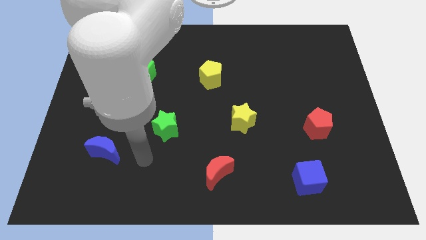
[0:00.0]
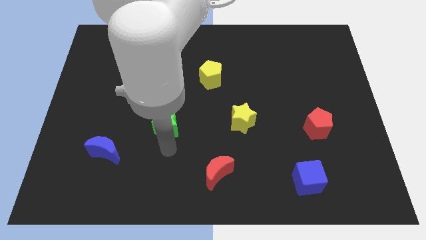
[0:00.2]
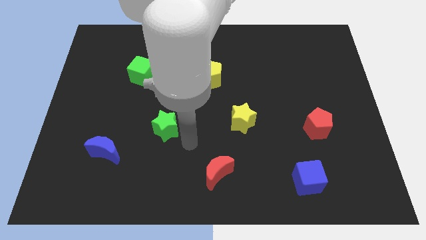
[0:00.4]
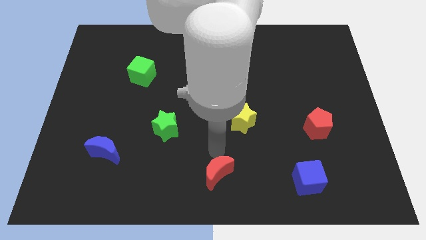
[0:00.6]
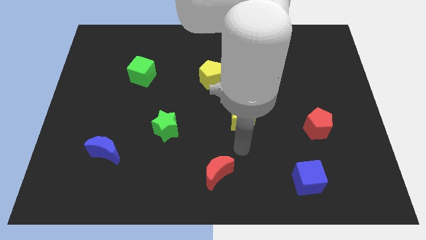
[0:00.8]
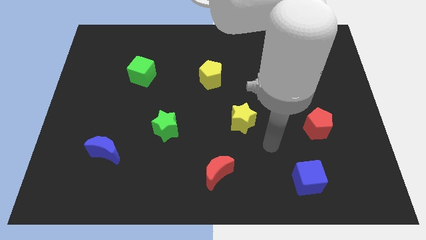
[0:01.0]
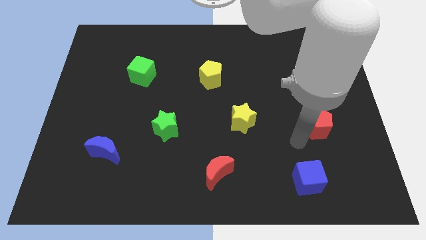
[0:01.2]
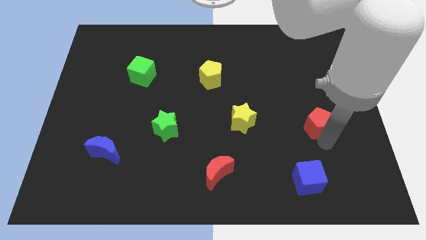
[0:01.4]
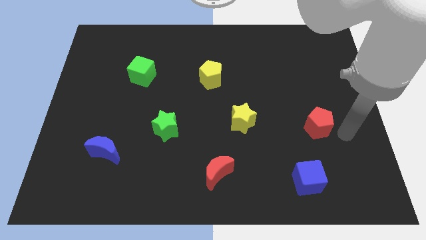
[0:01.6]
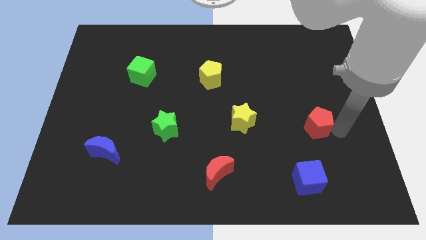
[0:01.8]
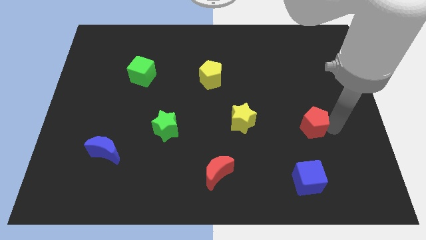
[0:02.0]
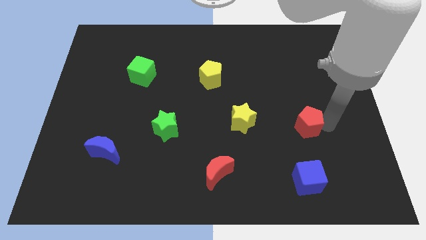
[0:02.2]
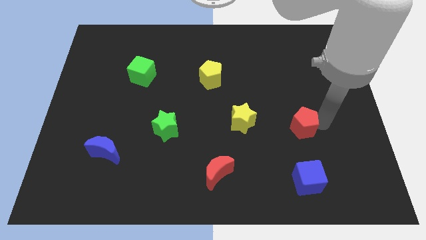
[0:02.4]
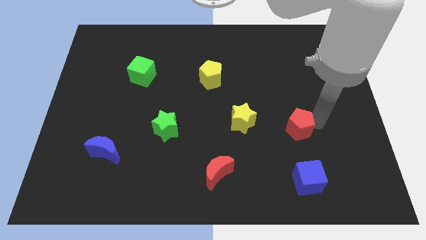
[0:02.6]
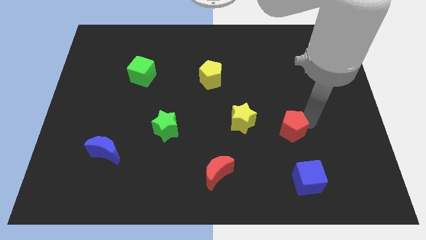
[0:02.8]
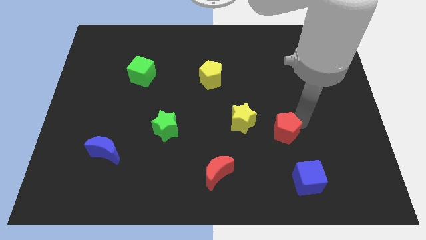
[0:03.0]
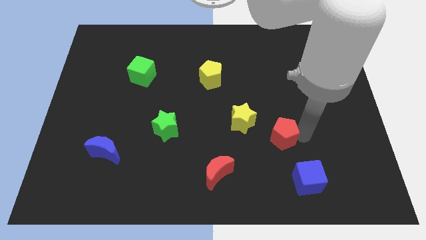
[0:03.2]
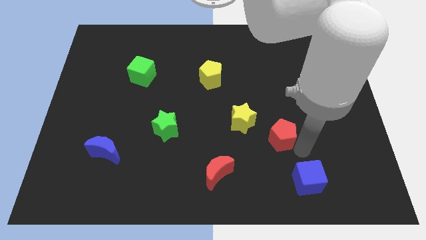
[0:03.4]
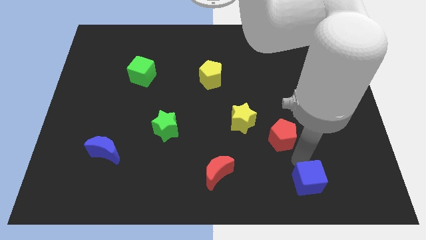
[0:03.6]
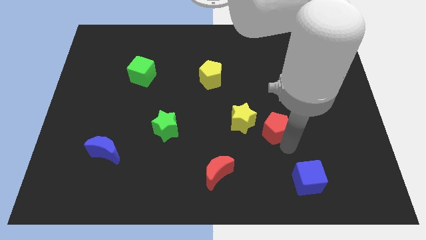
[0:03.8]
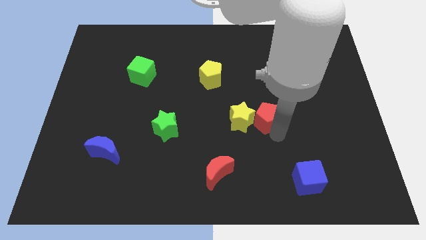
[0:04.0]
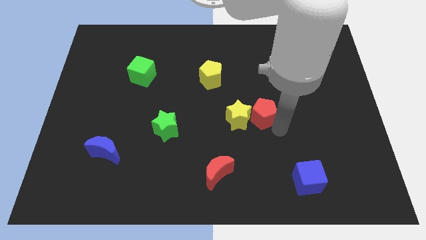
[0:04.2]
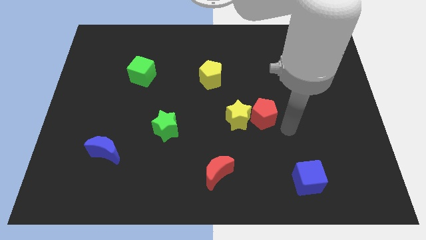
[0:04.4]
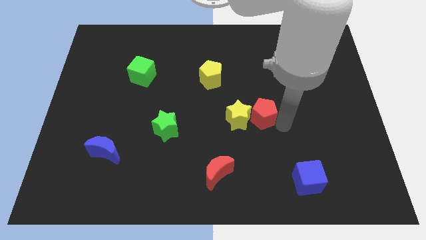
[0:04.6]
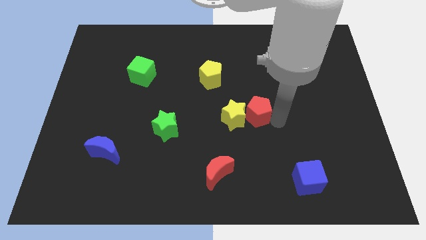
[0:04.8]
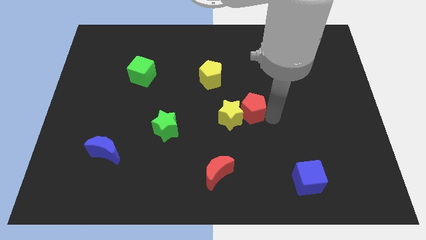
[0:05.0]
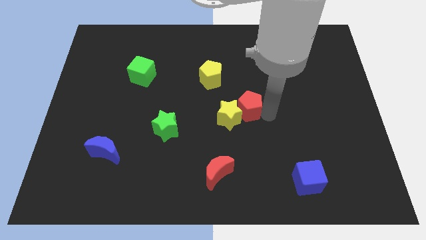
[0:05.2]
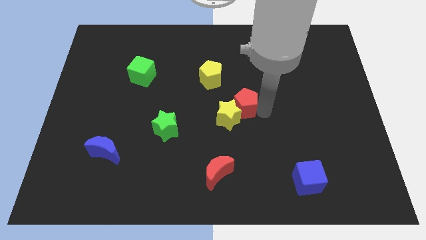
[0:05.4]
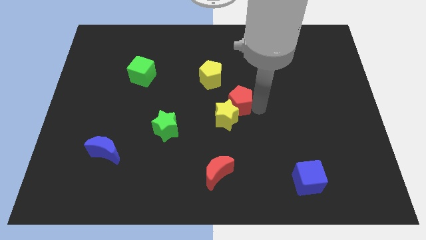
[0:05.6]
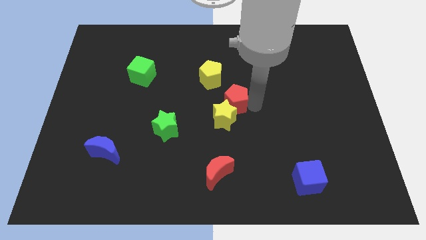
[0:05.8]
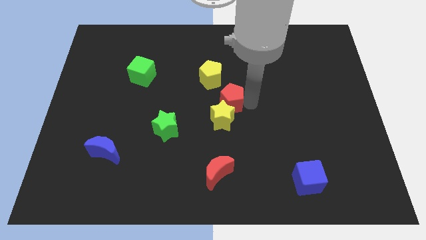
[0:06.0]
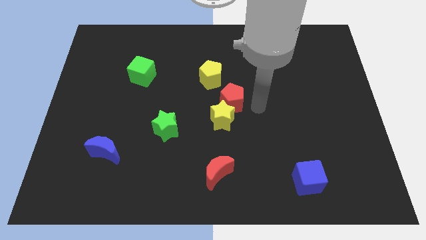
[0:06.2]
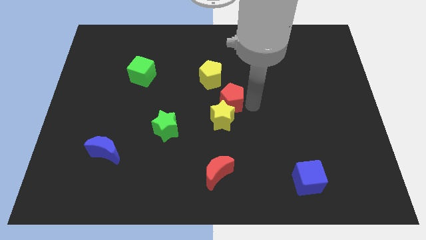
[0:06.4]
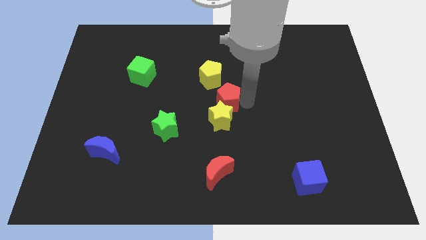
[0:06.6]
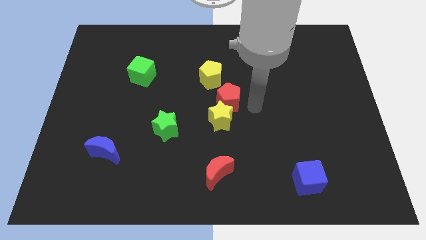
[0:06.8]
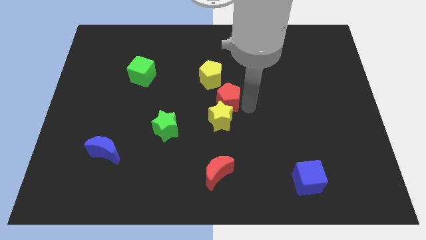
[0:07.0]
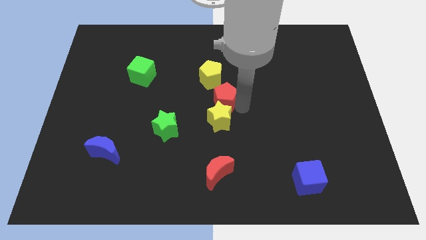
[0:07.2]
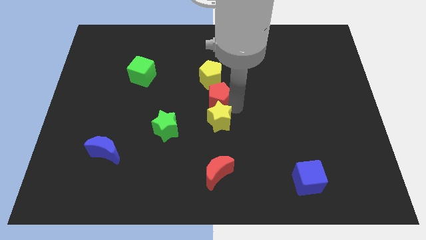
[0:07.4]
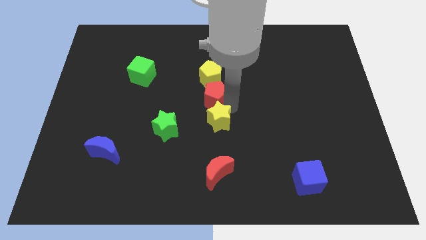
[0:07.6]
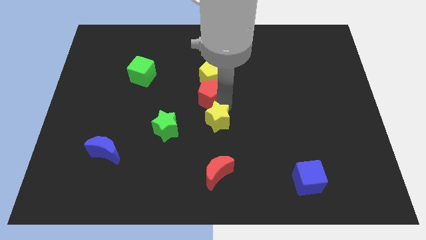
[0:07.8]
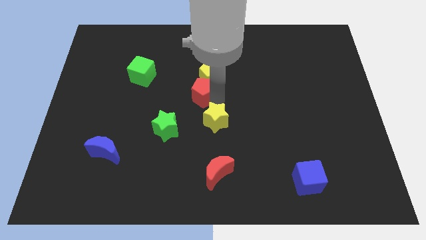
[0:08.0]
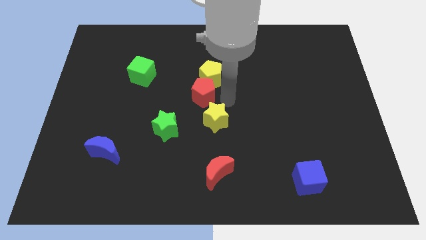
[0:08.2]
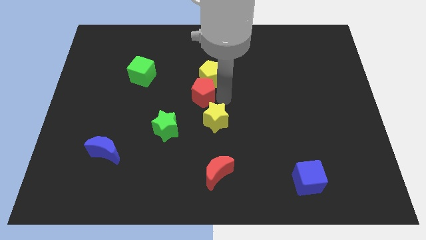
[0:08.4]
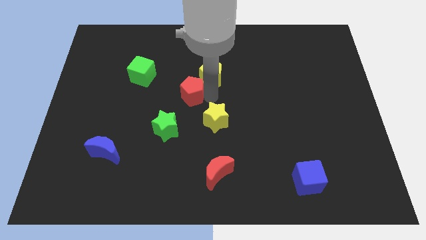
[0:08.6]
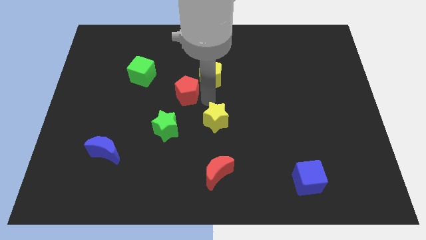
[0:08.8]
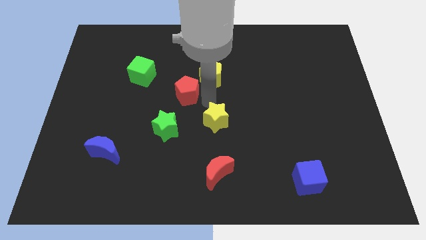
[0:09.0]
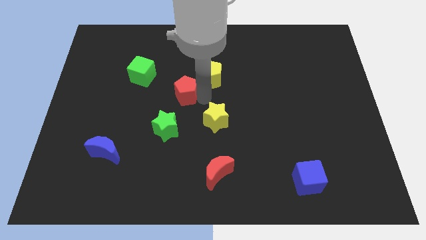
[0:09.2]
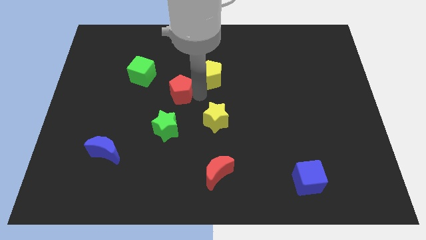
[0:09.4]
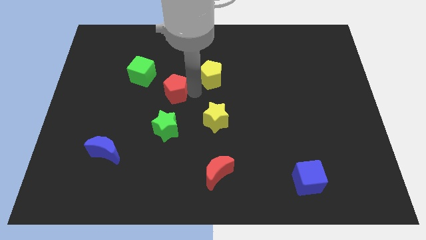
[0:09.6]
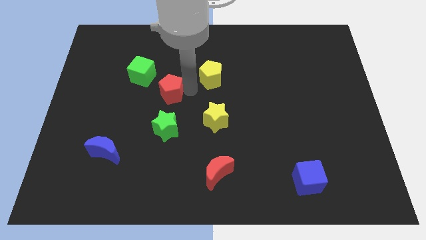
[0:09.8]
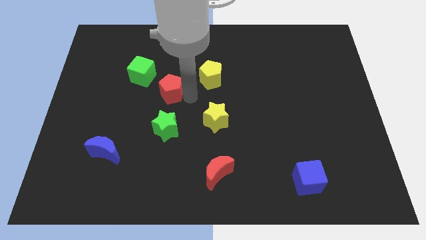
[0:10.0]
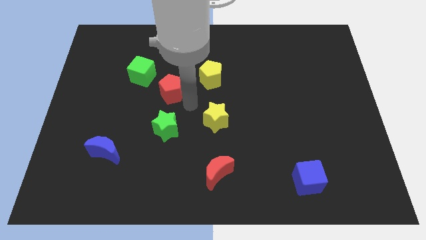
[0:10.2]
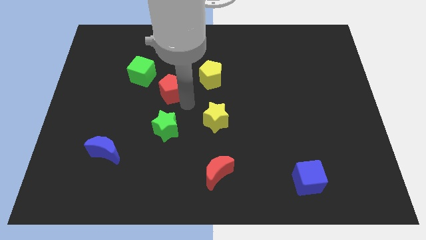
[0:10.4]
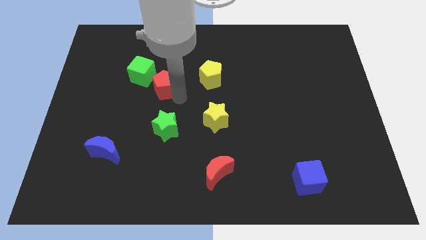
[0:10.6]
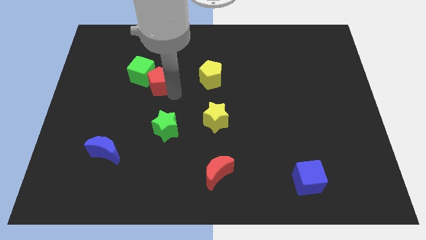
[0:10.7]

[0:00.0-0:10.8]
put the red pentagon next to the green cube
